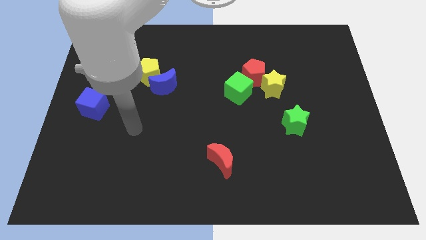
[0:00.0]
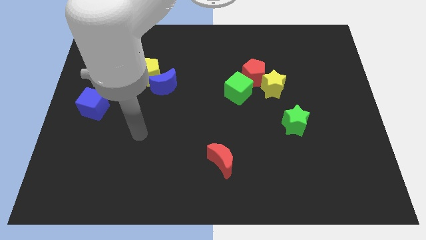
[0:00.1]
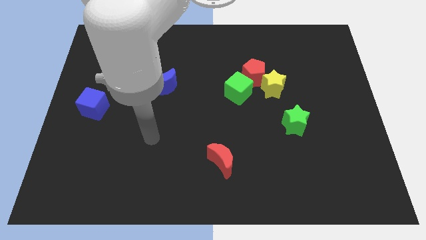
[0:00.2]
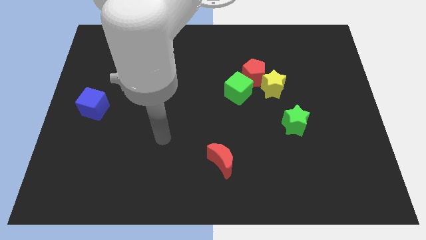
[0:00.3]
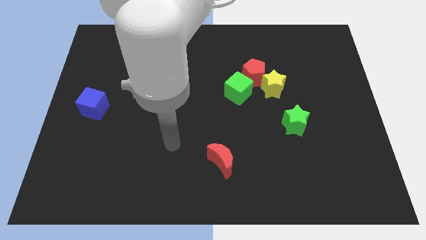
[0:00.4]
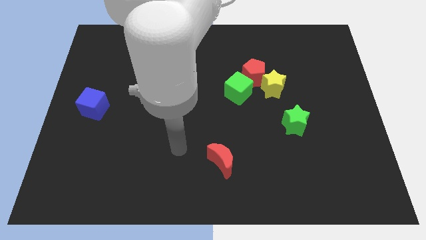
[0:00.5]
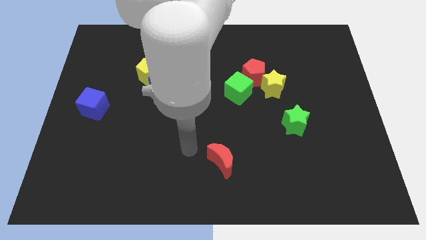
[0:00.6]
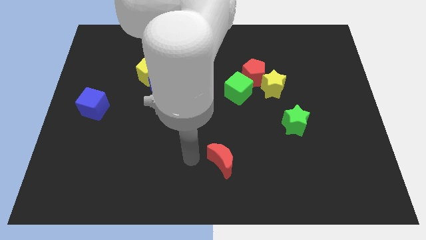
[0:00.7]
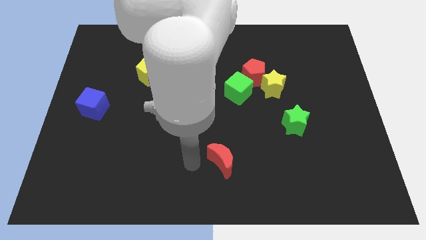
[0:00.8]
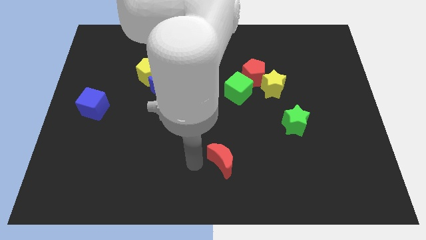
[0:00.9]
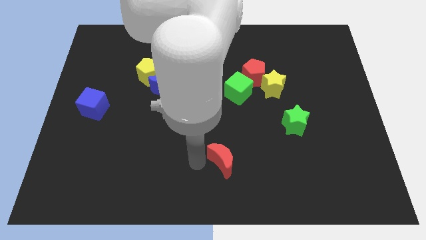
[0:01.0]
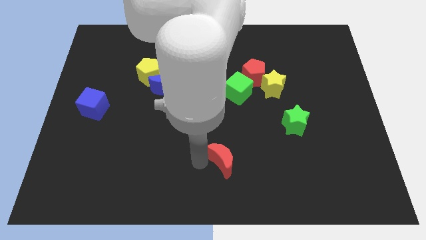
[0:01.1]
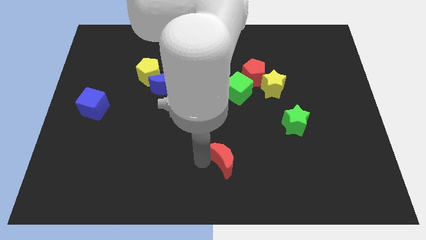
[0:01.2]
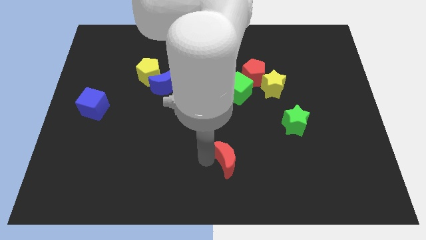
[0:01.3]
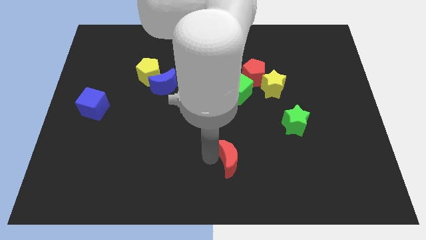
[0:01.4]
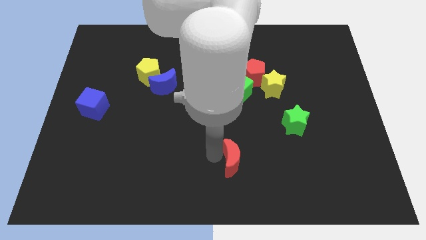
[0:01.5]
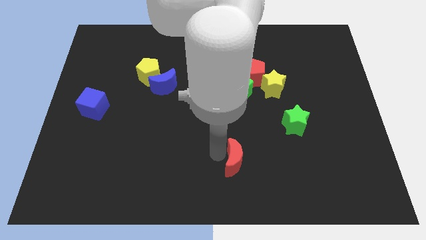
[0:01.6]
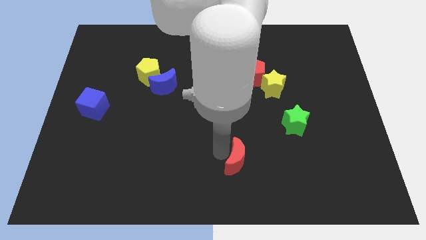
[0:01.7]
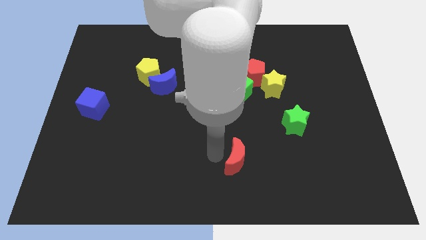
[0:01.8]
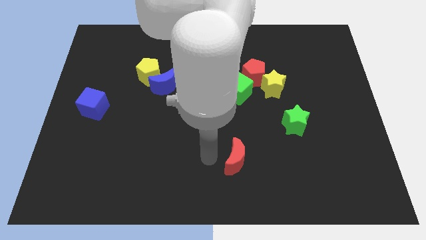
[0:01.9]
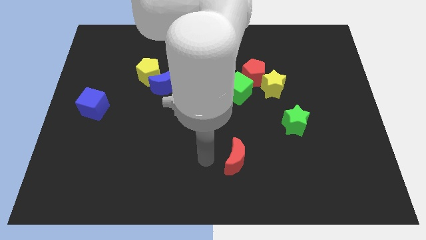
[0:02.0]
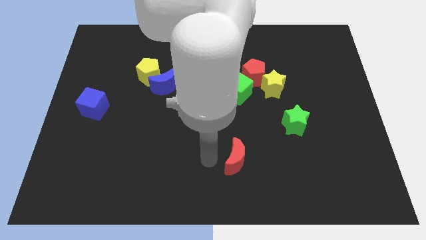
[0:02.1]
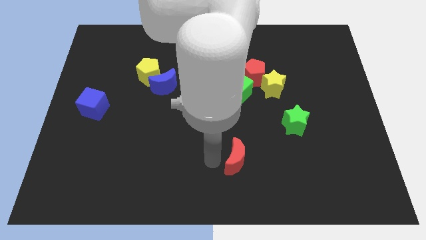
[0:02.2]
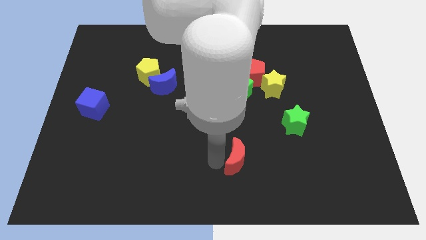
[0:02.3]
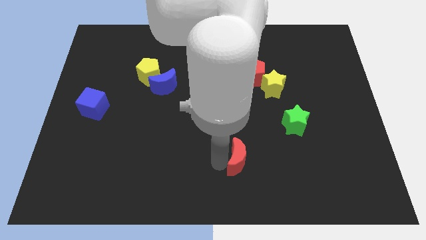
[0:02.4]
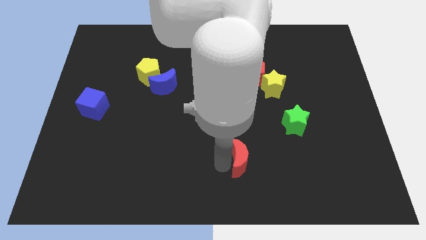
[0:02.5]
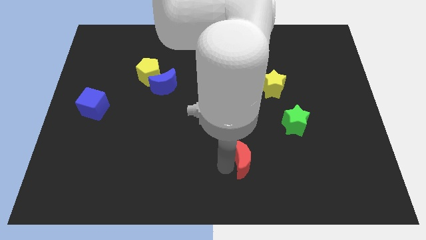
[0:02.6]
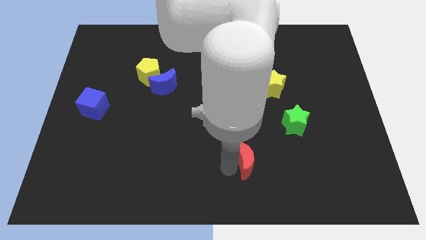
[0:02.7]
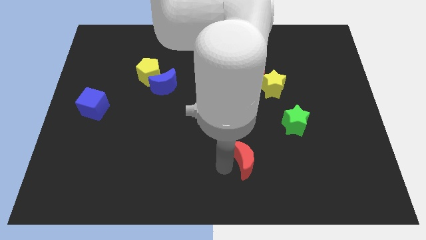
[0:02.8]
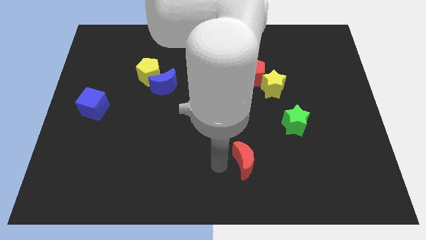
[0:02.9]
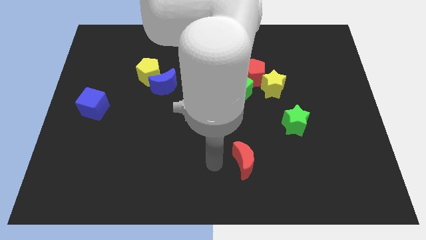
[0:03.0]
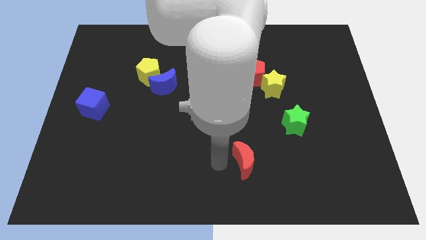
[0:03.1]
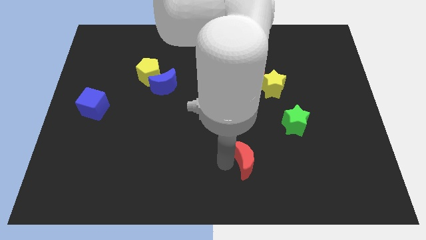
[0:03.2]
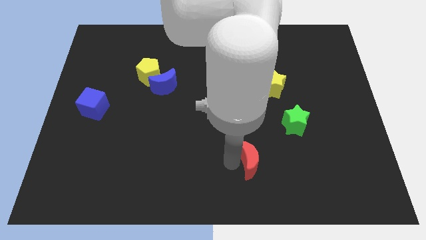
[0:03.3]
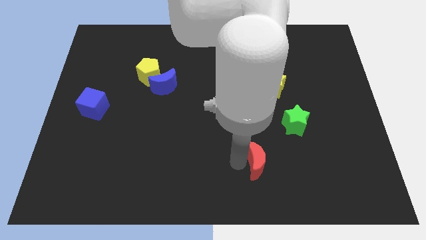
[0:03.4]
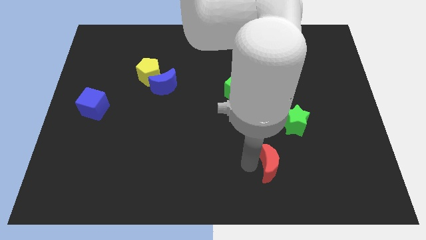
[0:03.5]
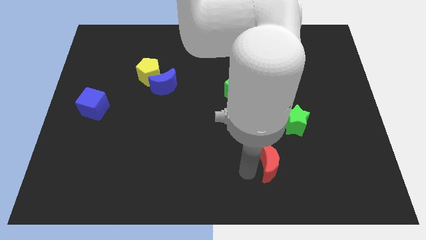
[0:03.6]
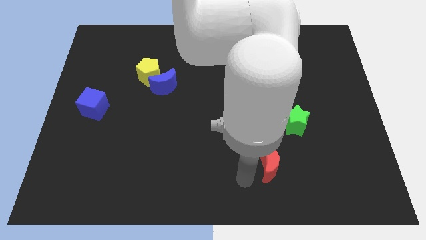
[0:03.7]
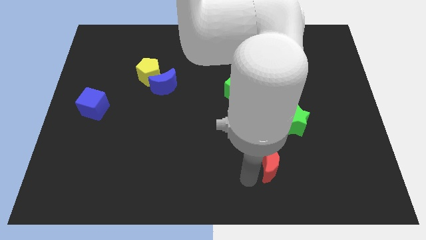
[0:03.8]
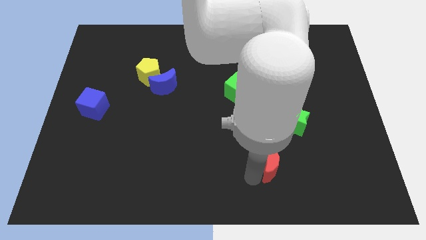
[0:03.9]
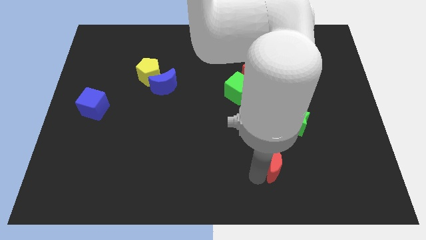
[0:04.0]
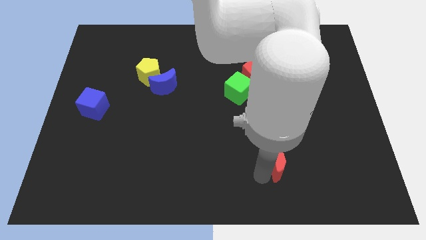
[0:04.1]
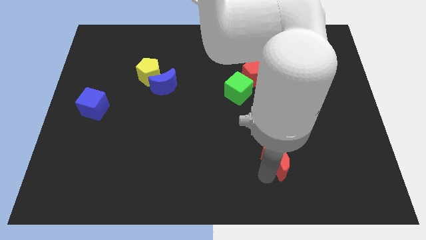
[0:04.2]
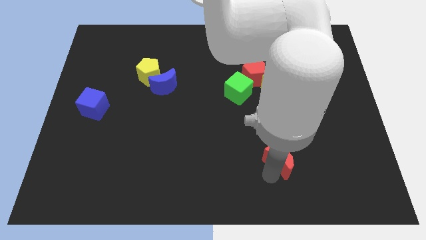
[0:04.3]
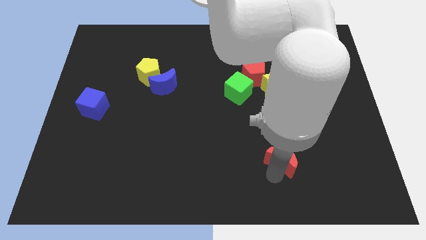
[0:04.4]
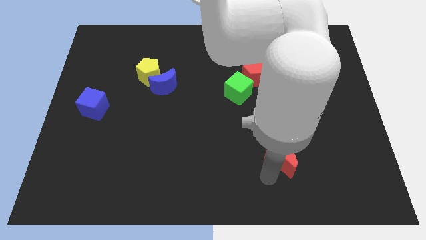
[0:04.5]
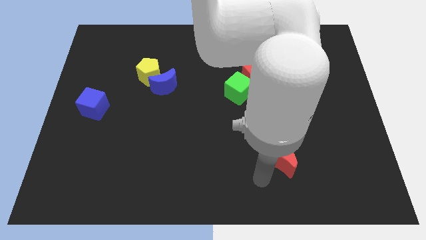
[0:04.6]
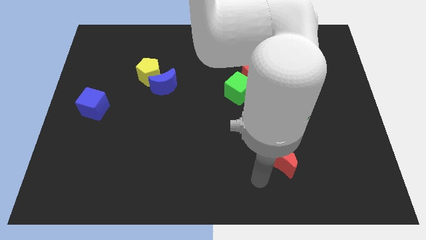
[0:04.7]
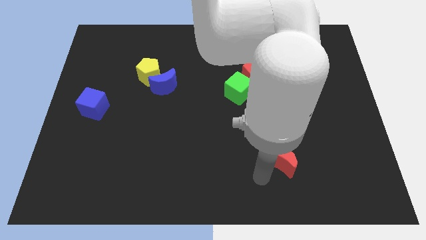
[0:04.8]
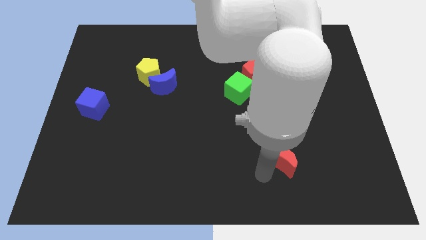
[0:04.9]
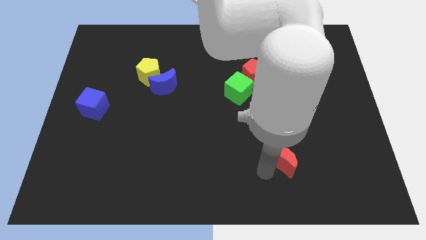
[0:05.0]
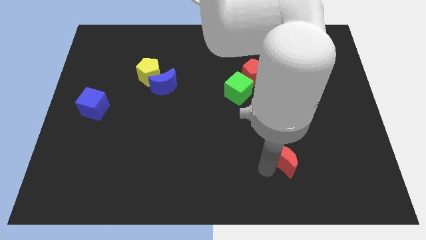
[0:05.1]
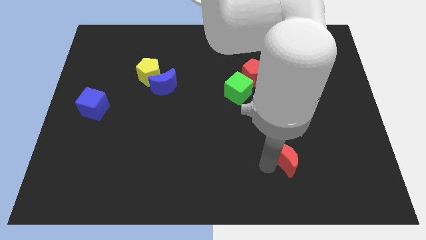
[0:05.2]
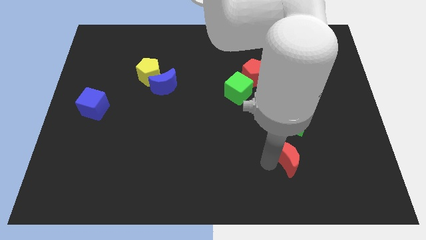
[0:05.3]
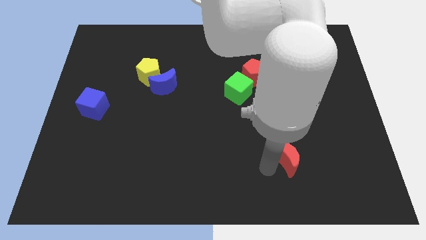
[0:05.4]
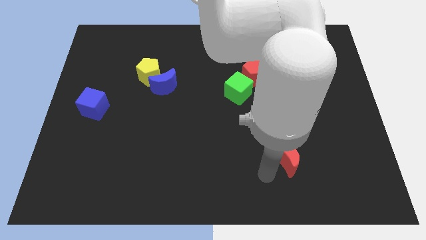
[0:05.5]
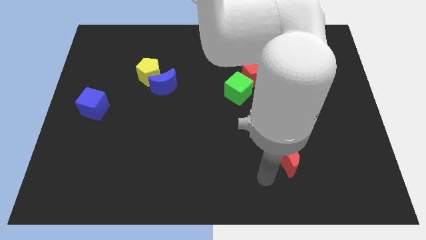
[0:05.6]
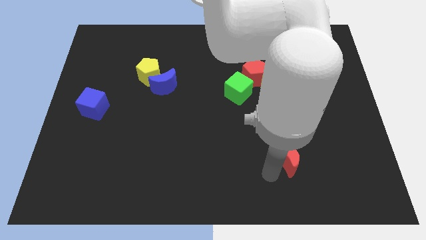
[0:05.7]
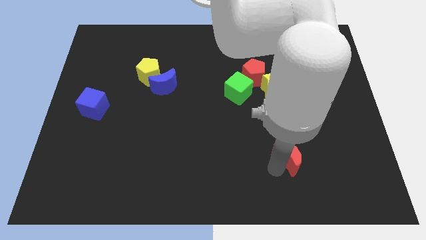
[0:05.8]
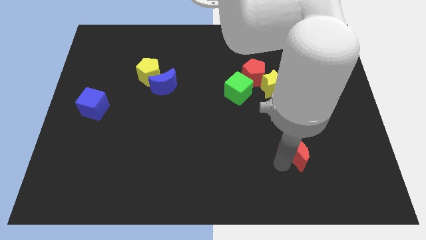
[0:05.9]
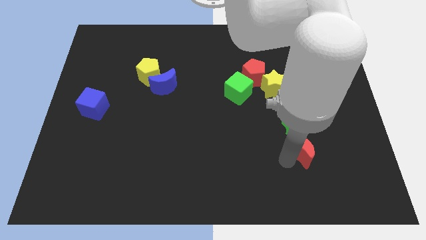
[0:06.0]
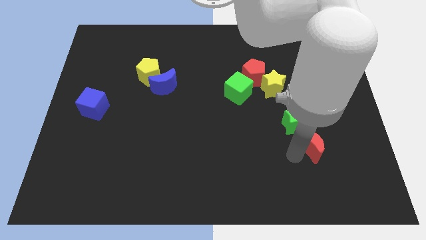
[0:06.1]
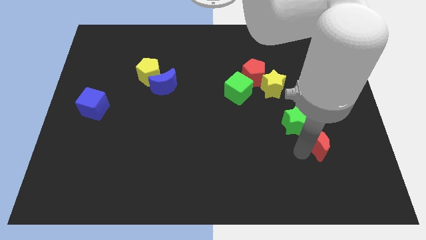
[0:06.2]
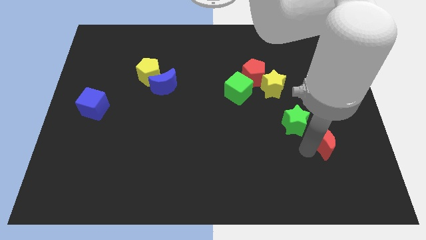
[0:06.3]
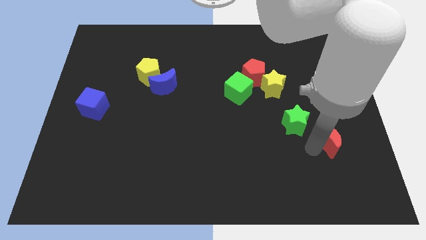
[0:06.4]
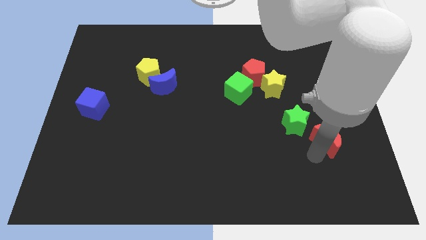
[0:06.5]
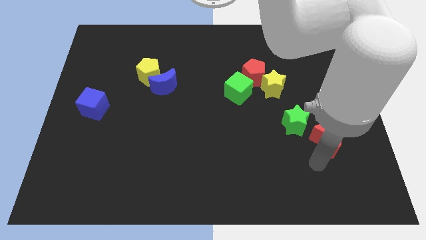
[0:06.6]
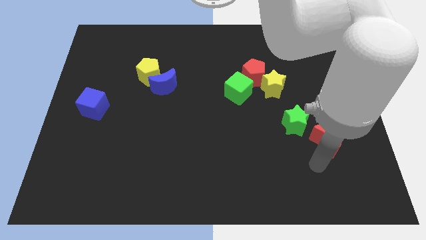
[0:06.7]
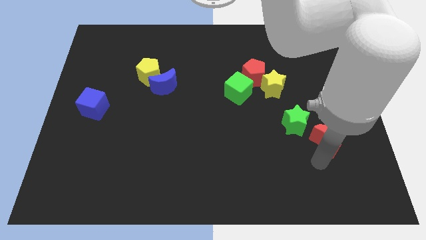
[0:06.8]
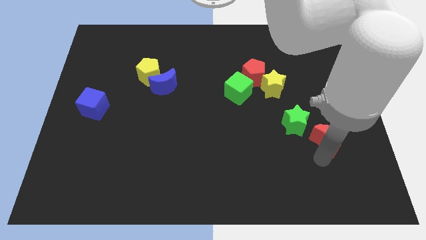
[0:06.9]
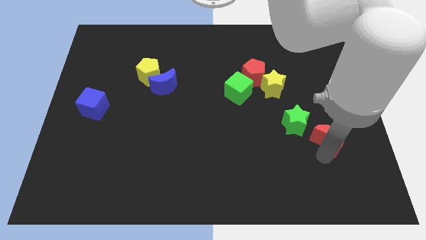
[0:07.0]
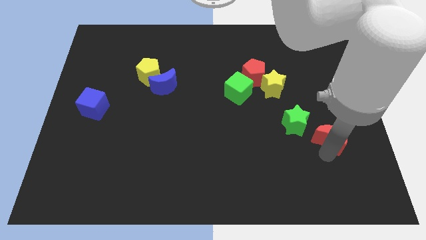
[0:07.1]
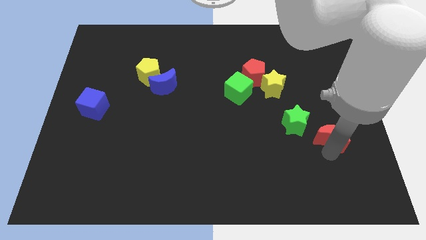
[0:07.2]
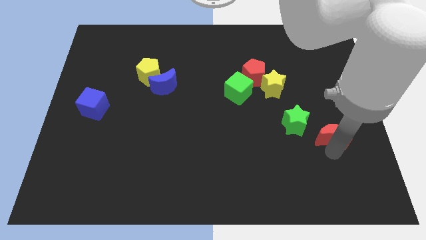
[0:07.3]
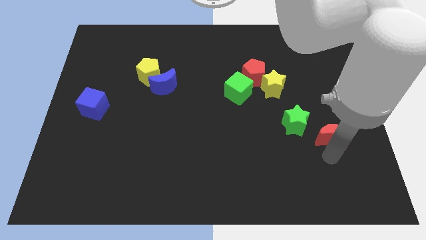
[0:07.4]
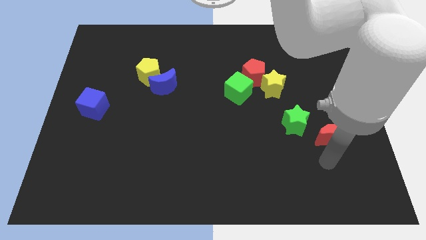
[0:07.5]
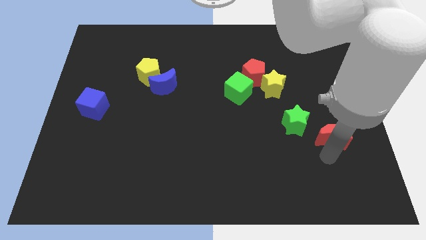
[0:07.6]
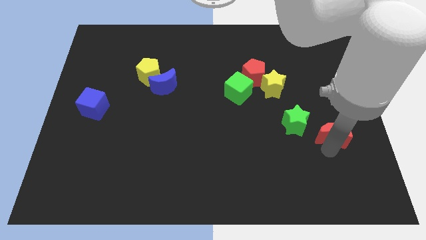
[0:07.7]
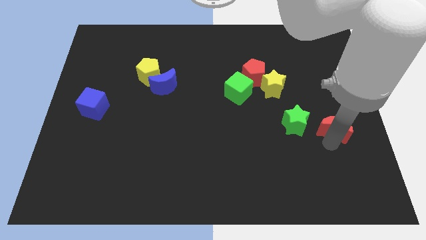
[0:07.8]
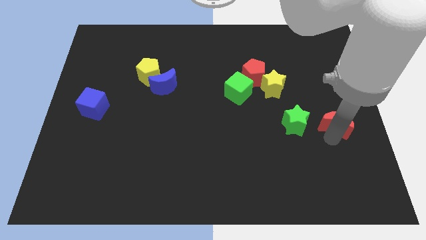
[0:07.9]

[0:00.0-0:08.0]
put the red moon to the right side
